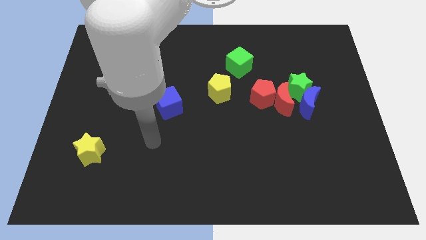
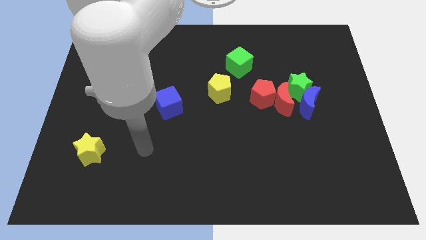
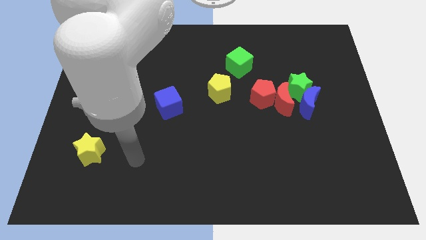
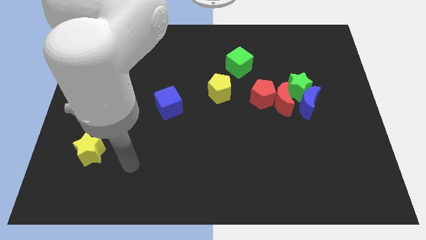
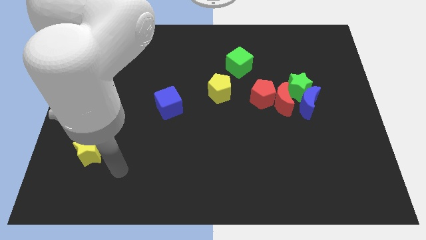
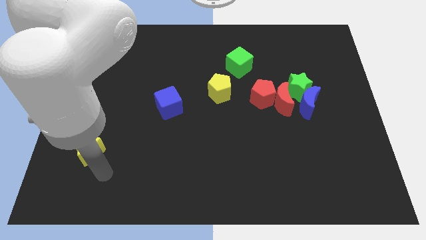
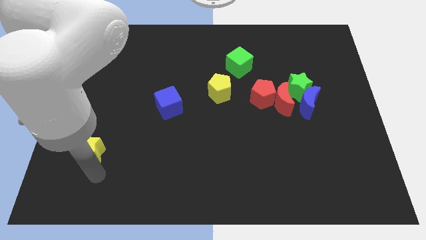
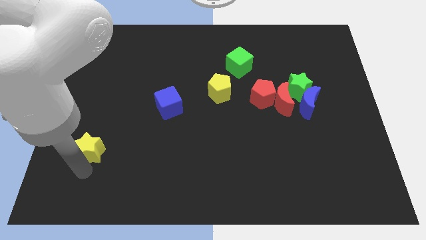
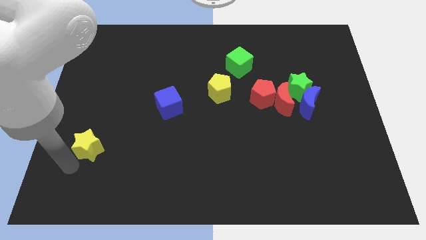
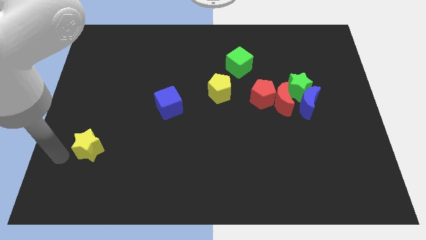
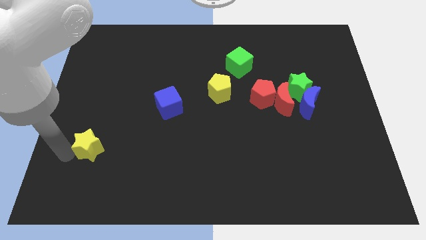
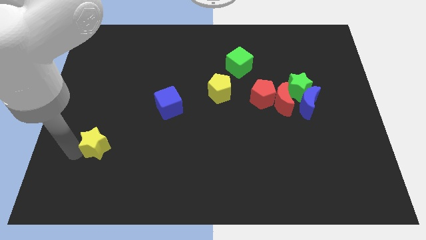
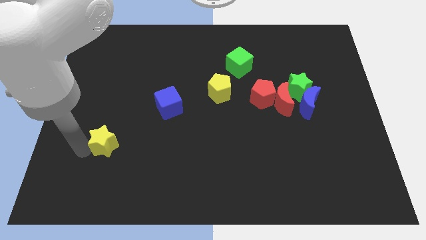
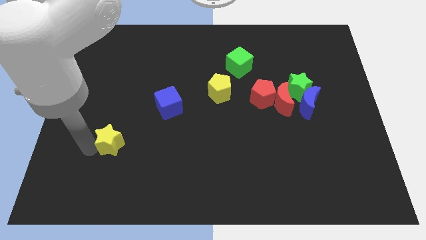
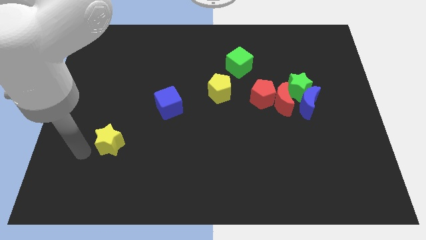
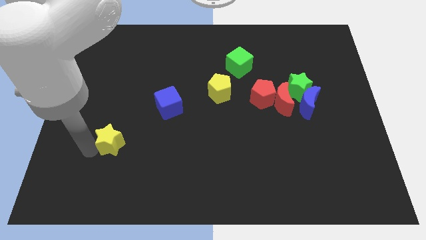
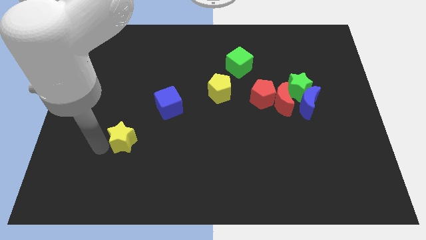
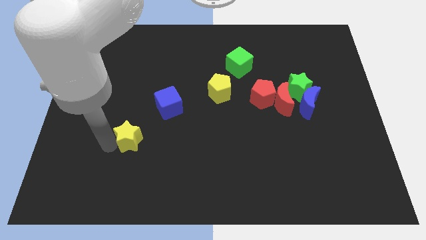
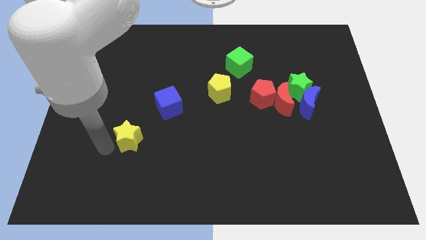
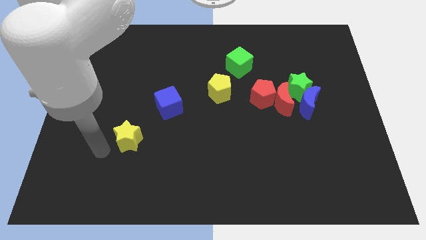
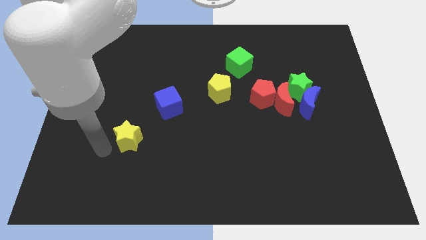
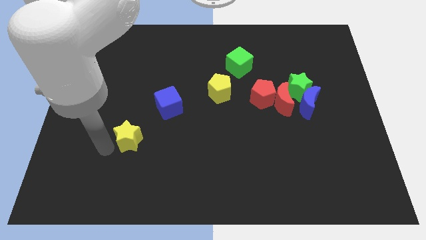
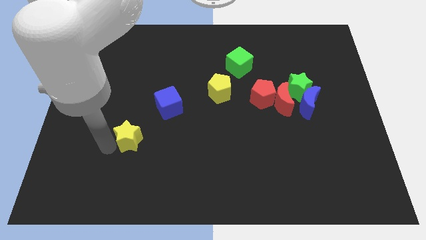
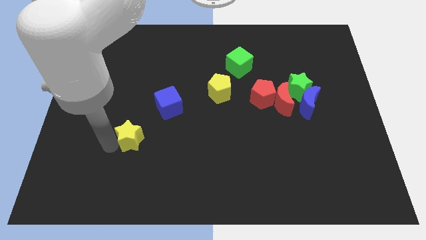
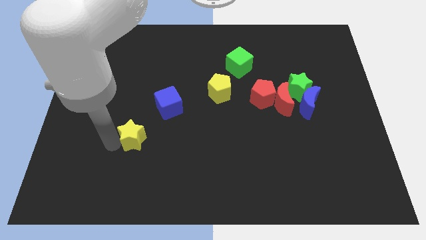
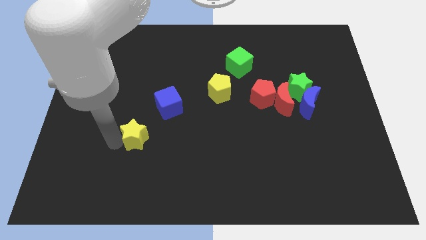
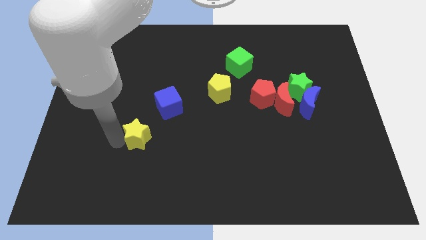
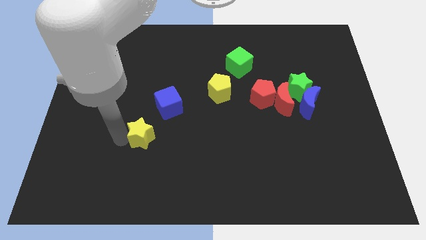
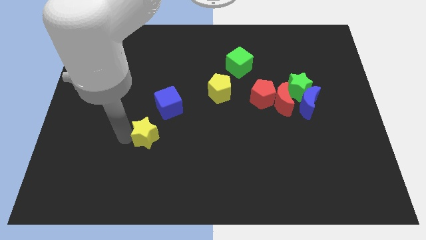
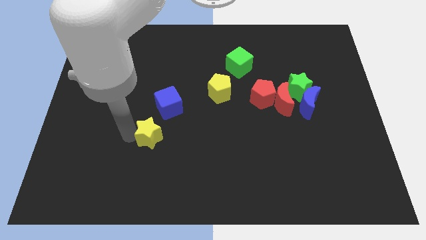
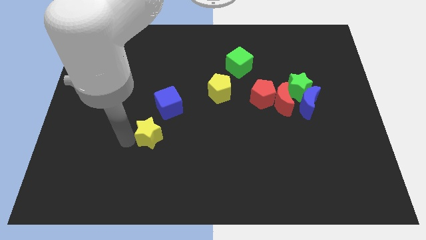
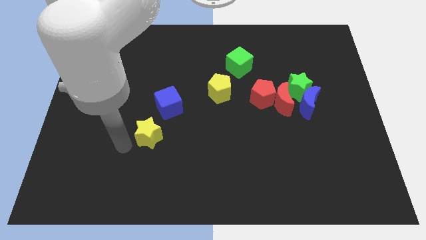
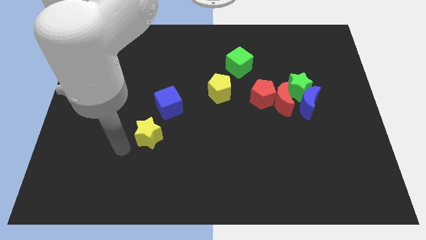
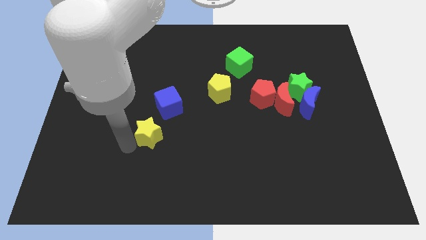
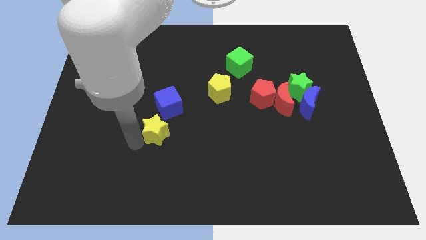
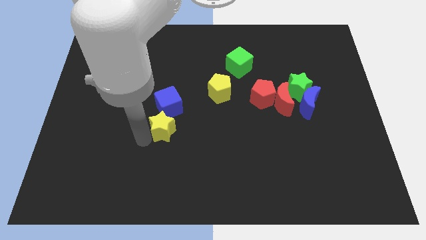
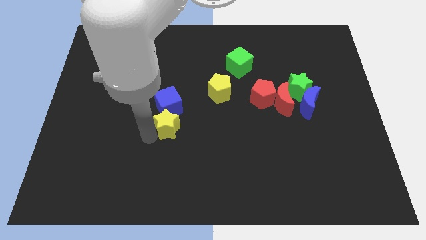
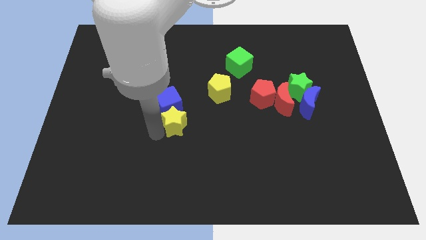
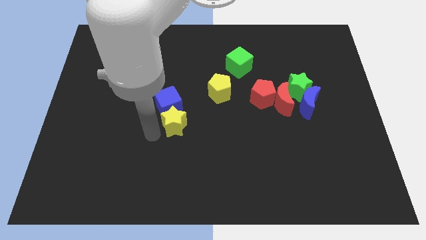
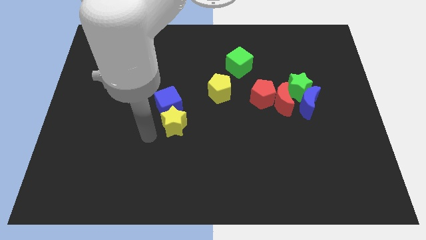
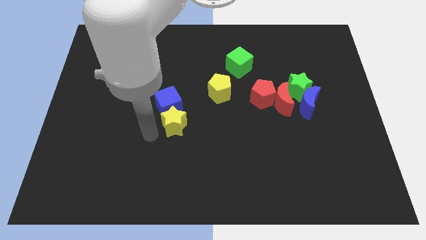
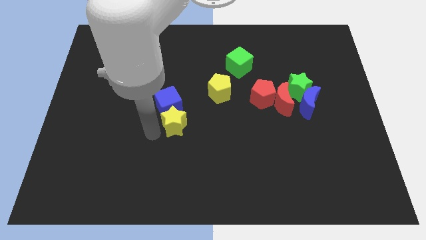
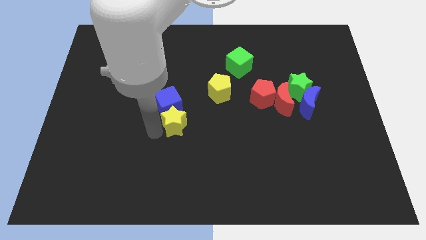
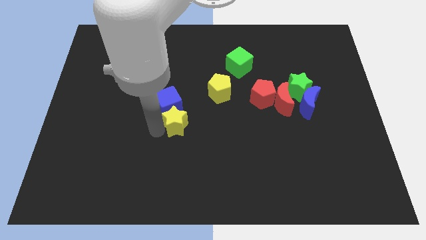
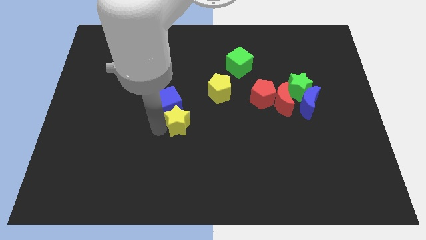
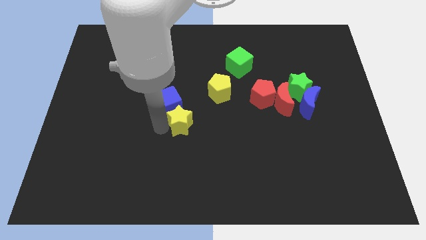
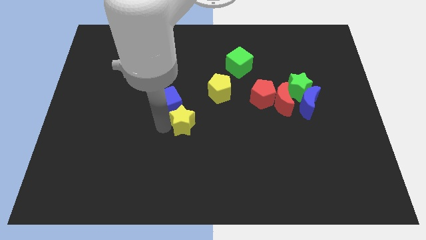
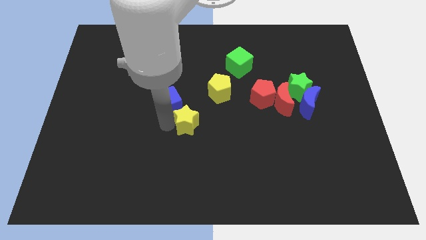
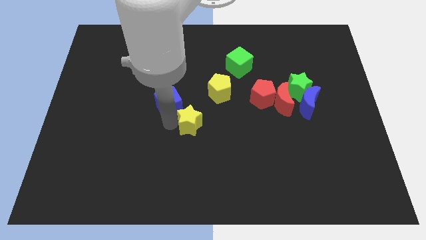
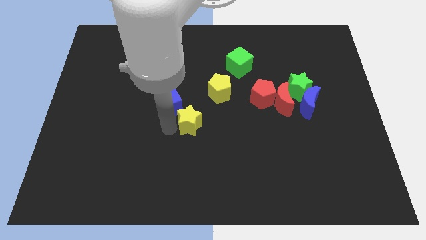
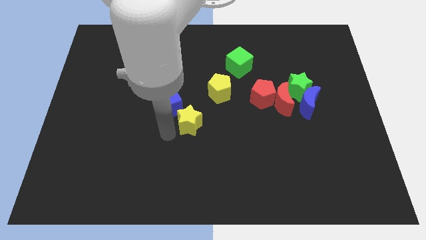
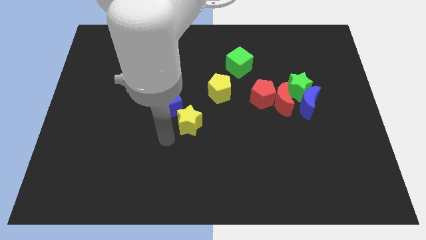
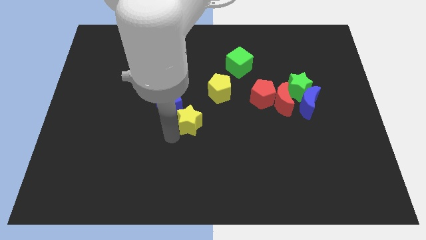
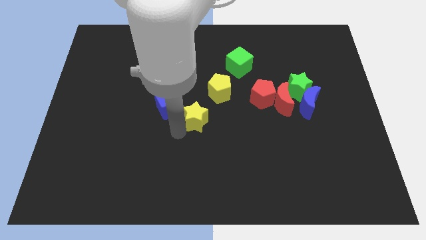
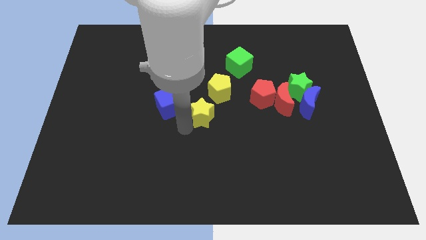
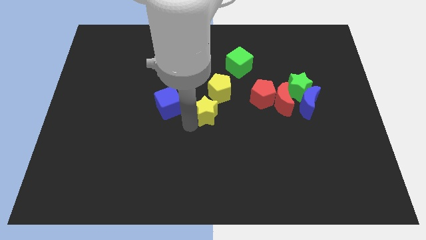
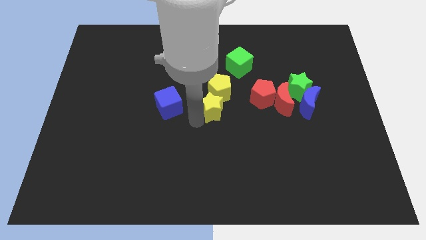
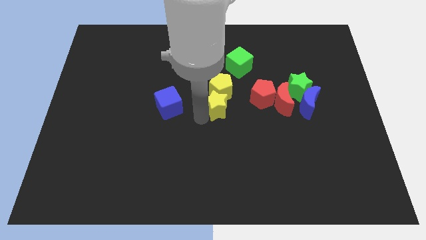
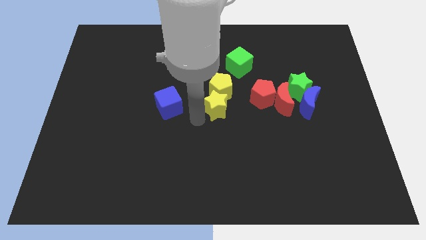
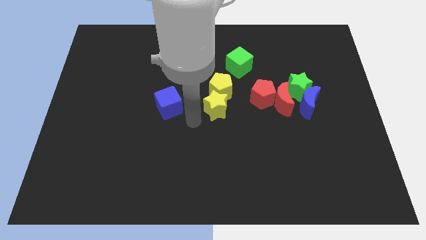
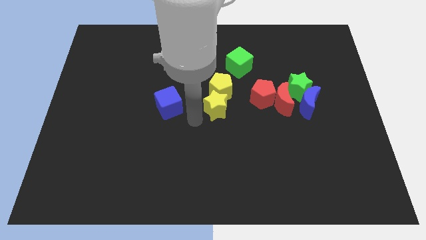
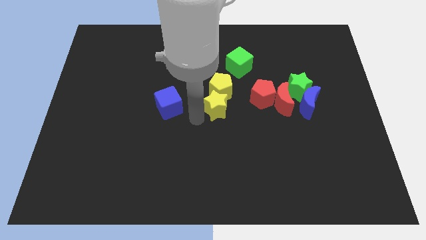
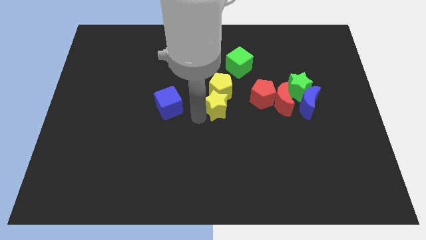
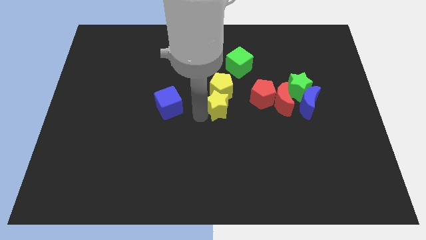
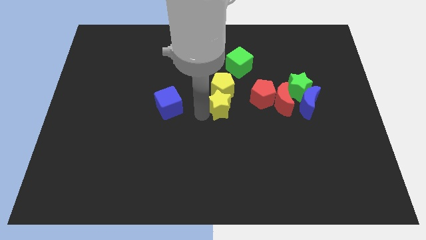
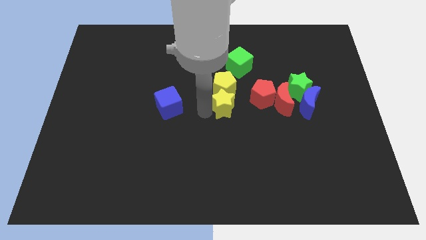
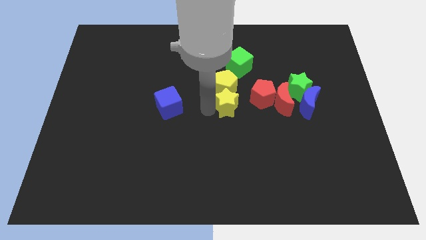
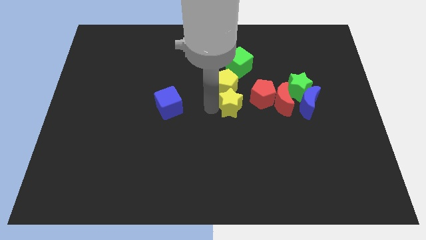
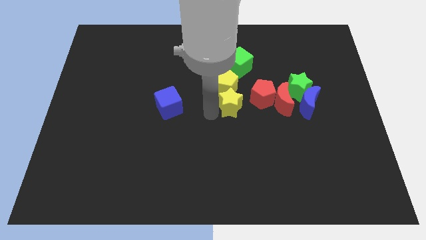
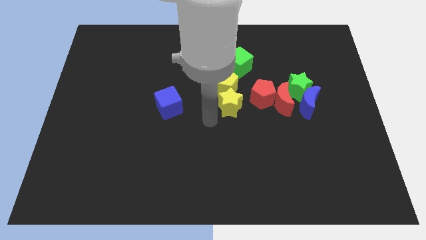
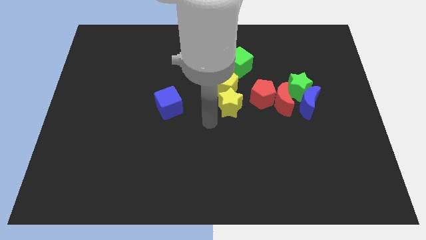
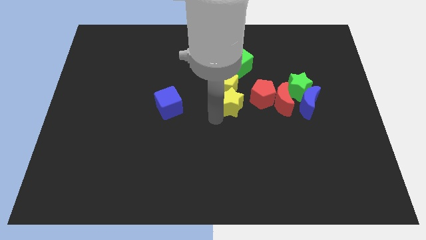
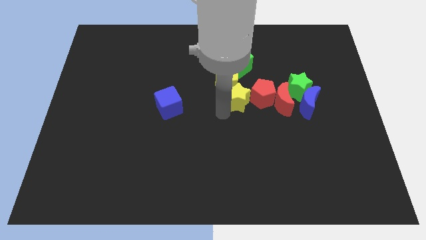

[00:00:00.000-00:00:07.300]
push the yellow star to the left side of the green star
